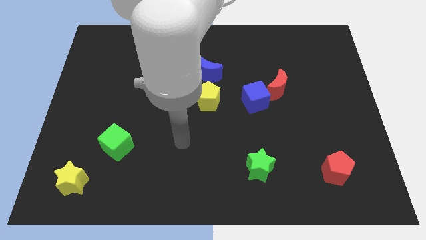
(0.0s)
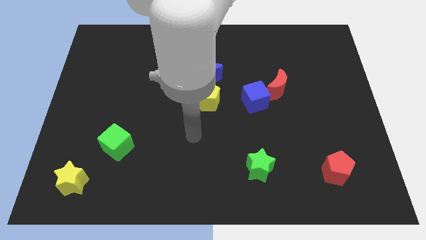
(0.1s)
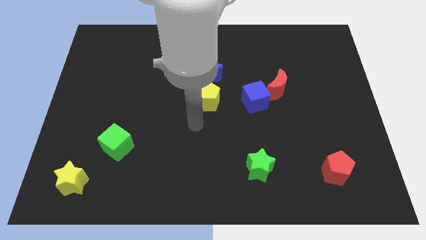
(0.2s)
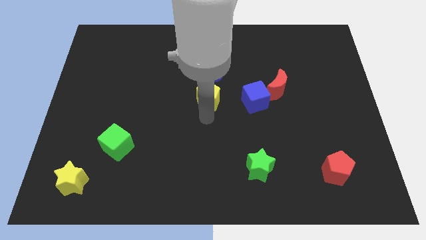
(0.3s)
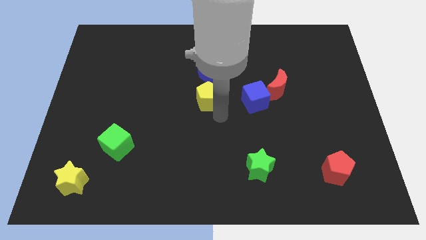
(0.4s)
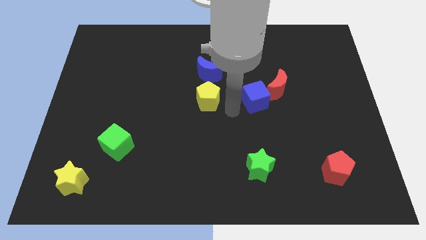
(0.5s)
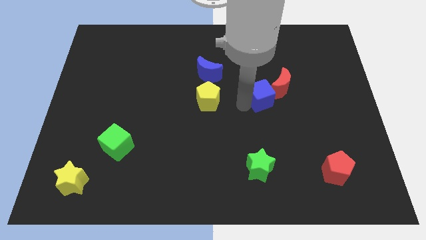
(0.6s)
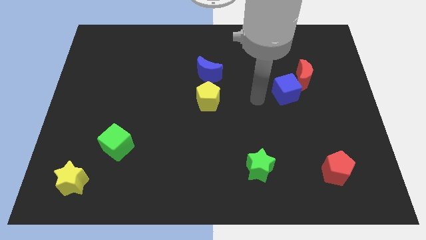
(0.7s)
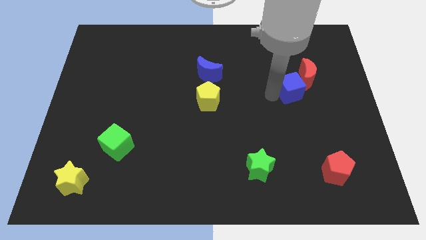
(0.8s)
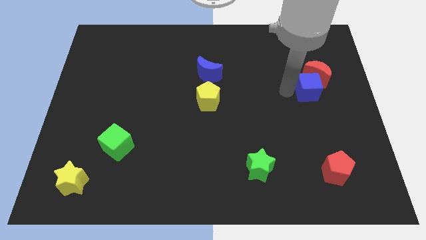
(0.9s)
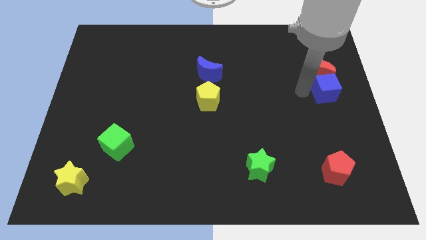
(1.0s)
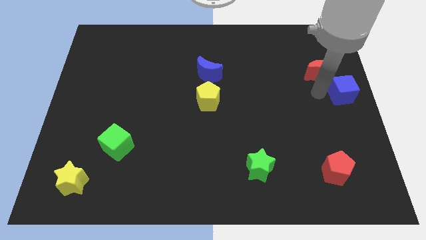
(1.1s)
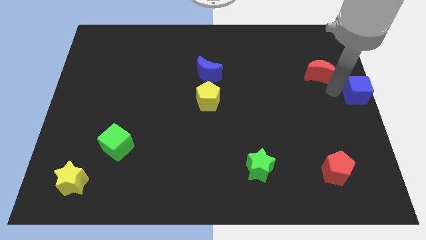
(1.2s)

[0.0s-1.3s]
pull the red moon apart from the blue cube

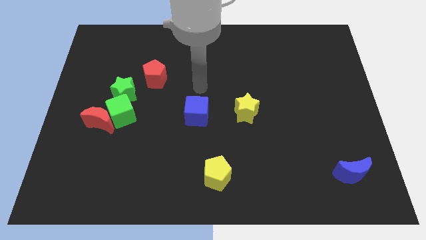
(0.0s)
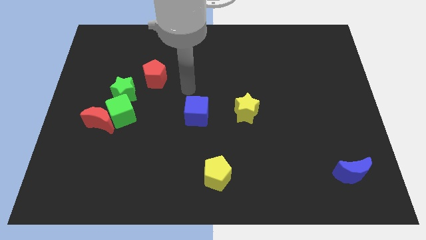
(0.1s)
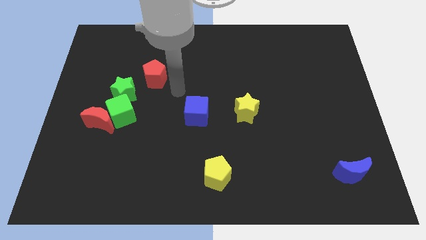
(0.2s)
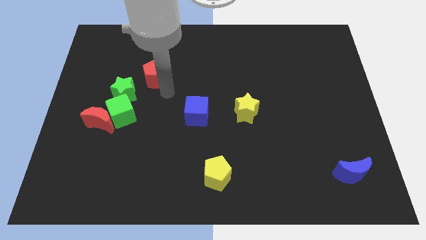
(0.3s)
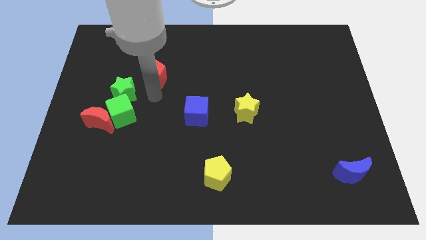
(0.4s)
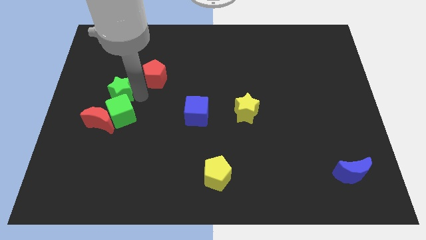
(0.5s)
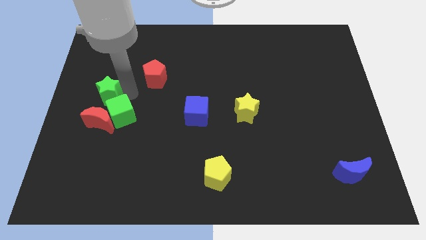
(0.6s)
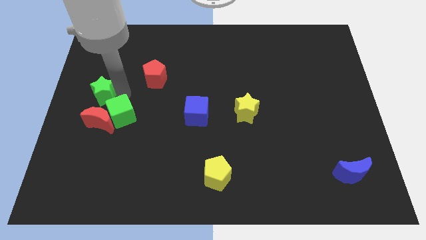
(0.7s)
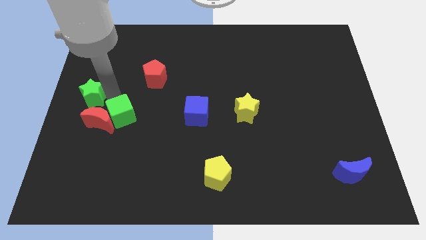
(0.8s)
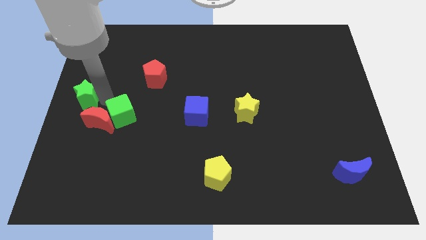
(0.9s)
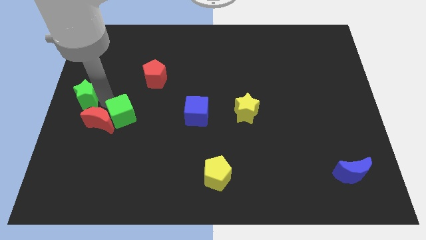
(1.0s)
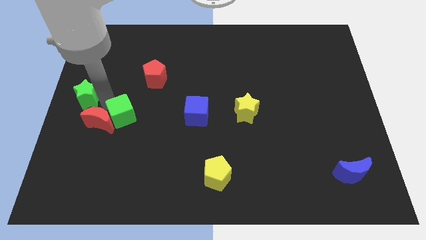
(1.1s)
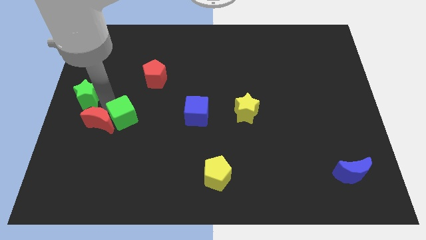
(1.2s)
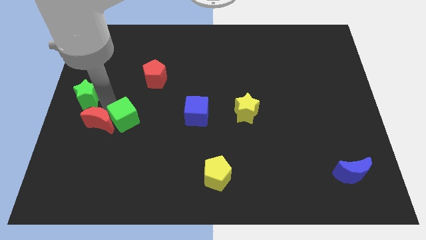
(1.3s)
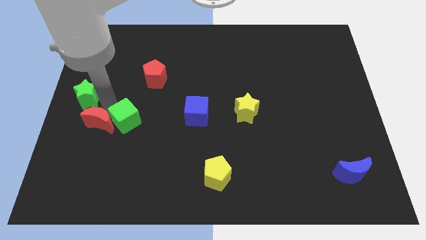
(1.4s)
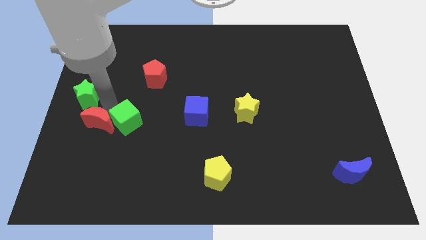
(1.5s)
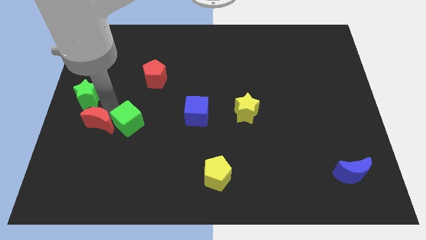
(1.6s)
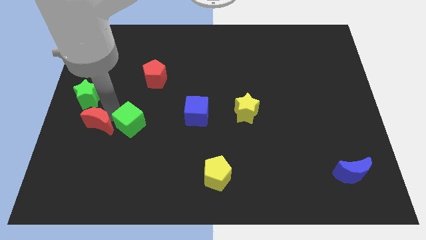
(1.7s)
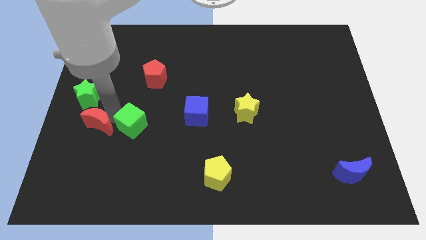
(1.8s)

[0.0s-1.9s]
move the green cube away from the red moon and green star

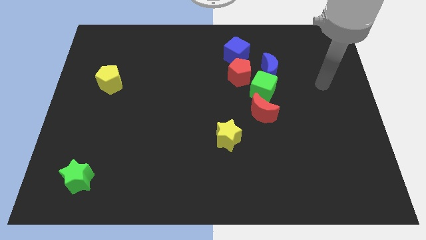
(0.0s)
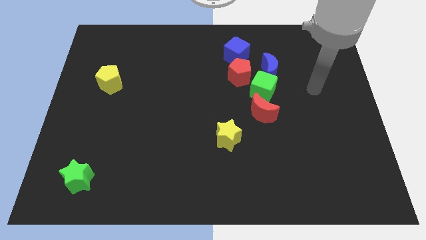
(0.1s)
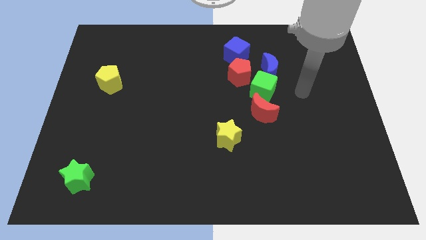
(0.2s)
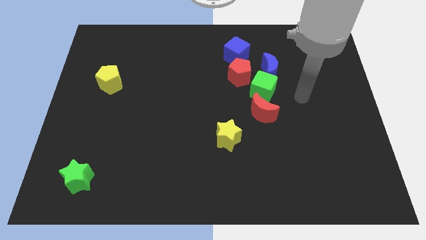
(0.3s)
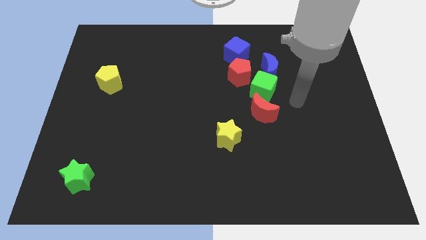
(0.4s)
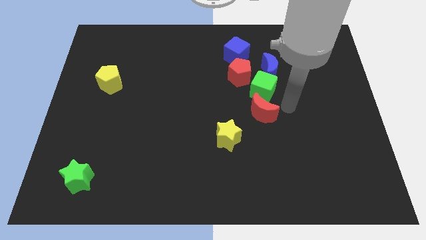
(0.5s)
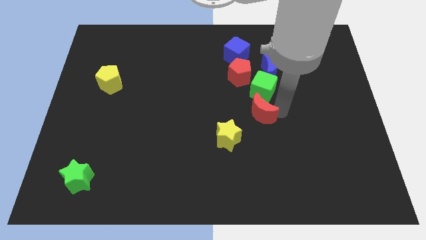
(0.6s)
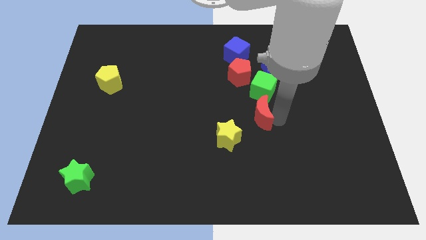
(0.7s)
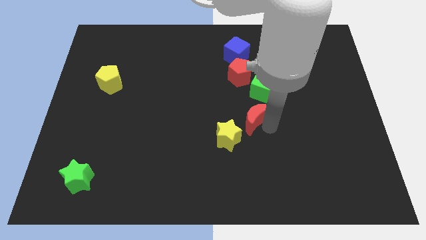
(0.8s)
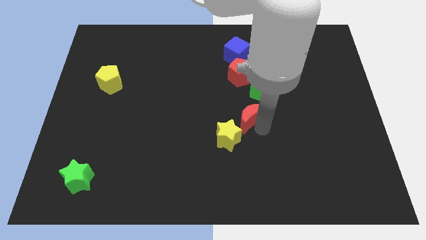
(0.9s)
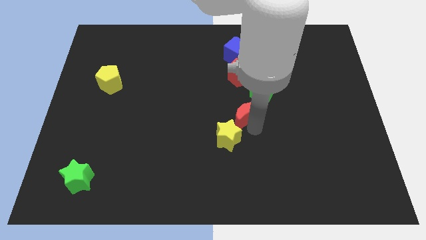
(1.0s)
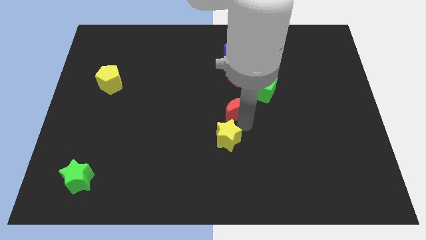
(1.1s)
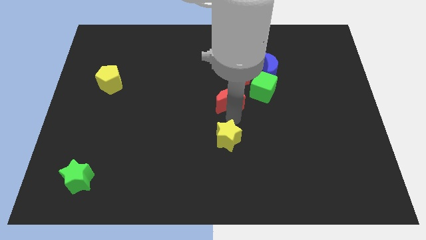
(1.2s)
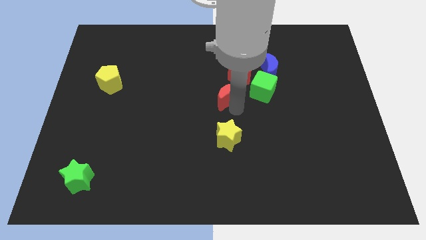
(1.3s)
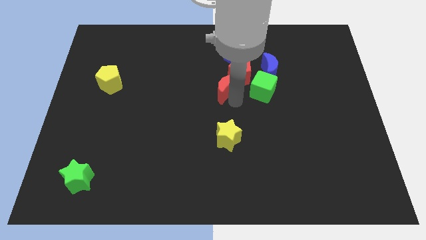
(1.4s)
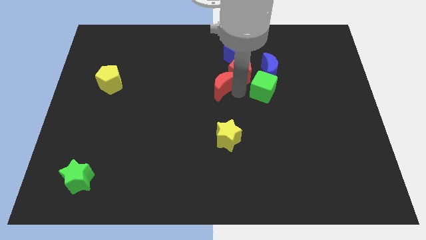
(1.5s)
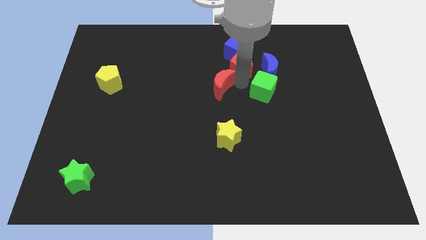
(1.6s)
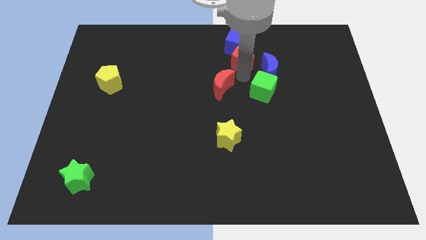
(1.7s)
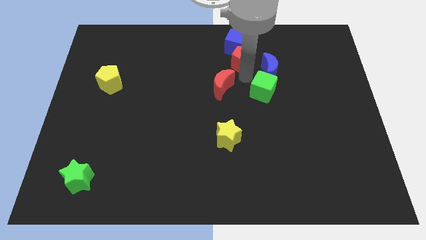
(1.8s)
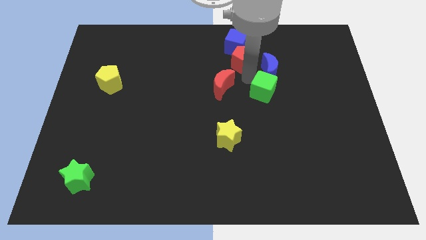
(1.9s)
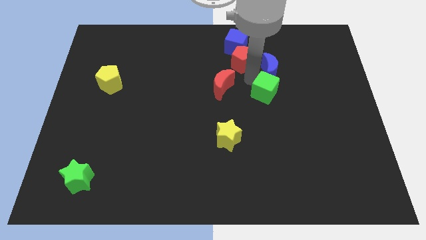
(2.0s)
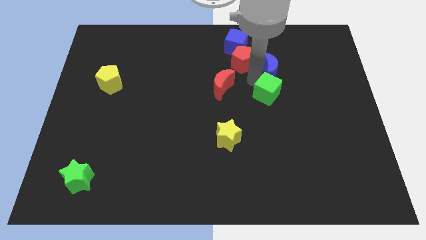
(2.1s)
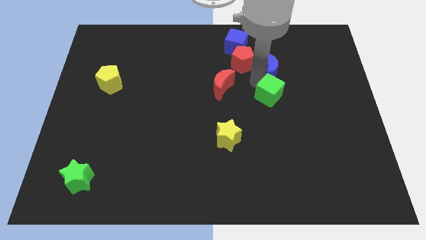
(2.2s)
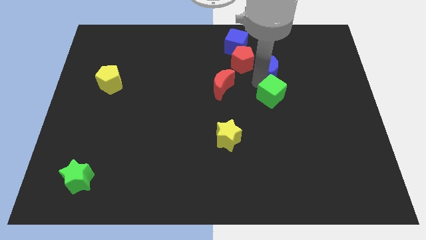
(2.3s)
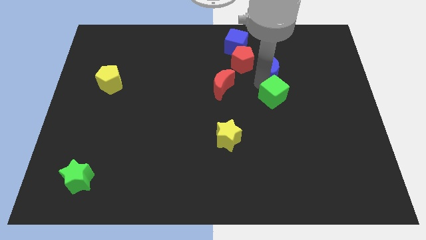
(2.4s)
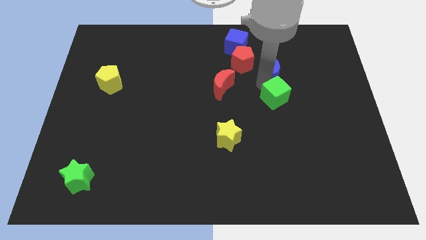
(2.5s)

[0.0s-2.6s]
move the green cube away from the blue moon, red moon, and red pentagon

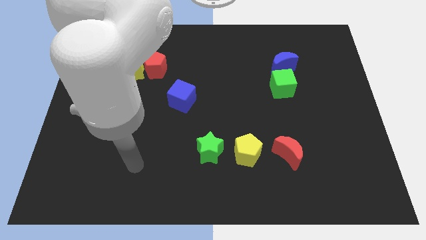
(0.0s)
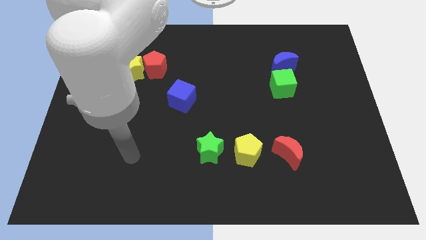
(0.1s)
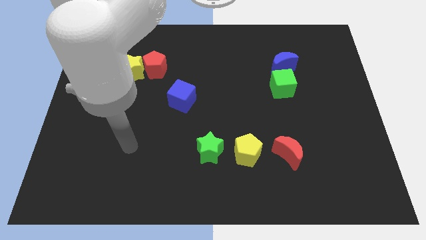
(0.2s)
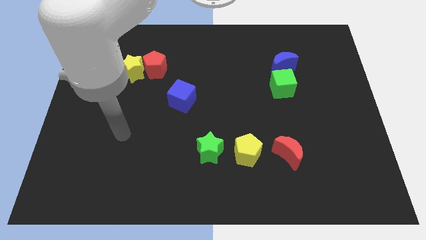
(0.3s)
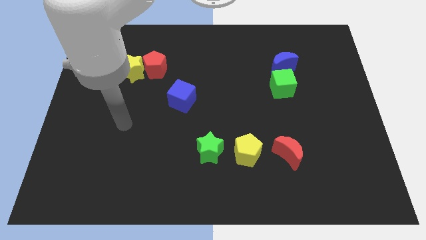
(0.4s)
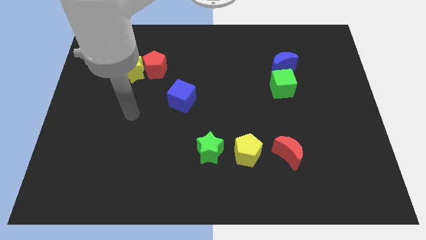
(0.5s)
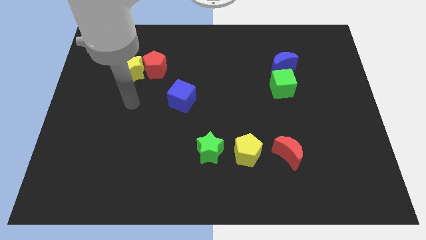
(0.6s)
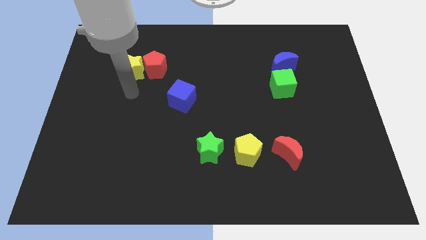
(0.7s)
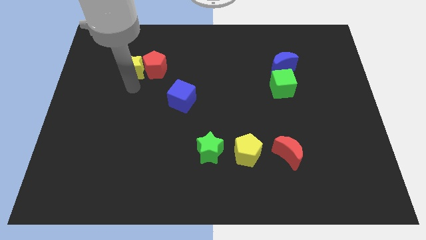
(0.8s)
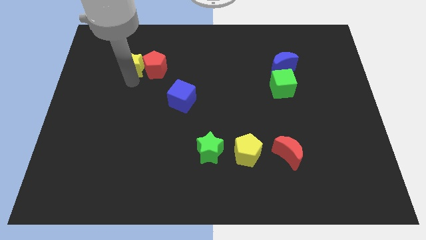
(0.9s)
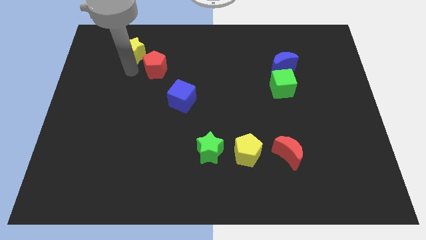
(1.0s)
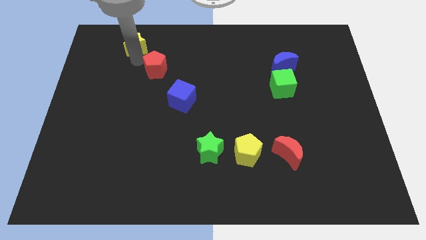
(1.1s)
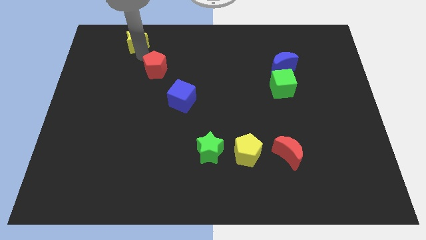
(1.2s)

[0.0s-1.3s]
pull the red pentagon apart from the yellow star

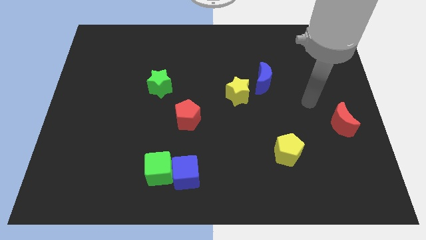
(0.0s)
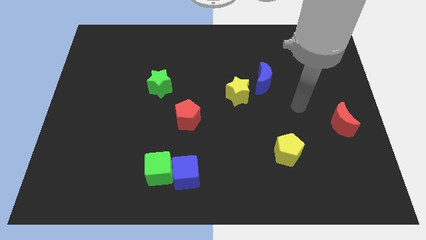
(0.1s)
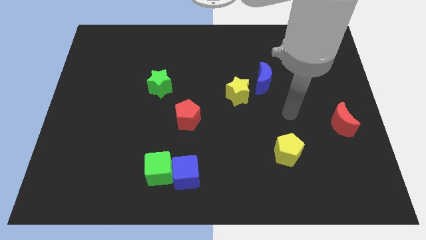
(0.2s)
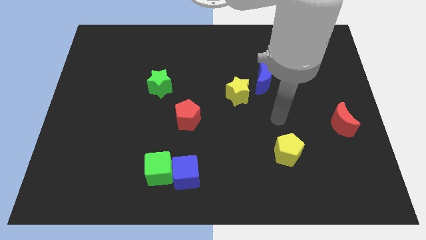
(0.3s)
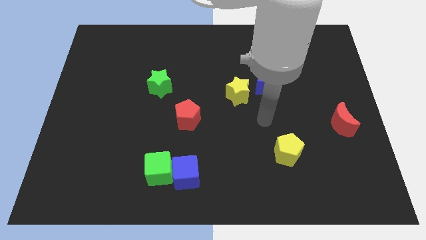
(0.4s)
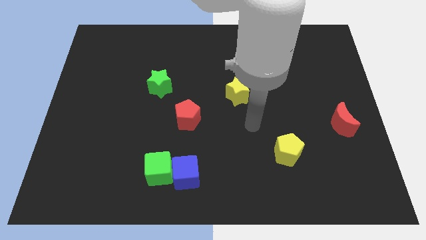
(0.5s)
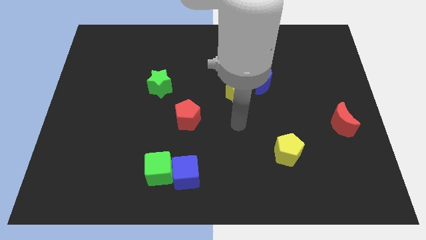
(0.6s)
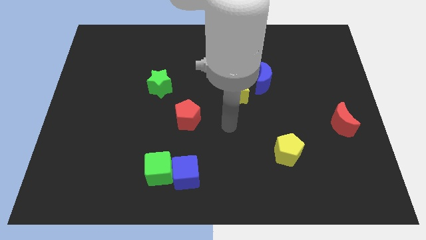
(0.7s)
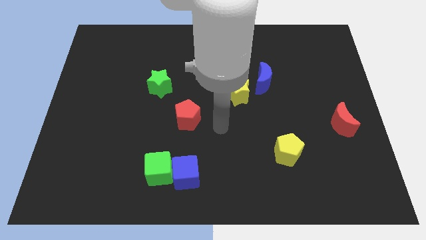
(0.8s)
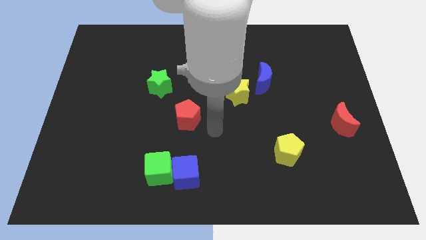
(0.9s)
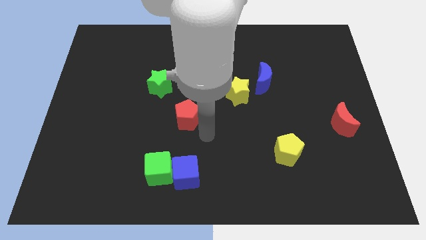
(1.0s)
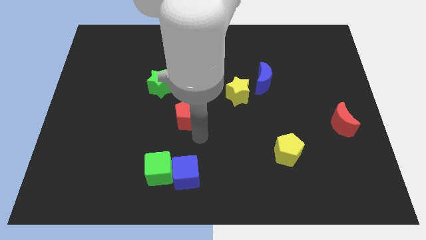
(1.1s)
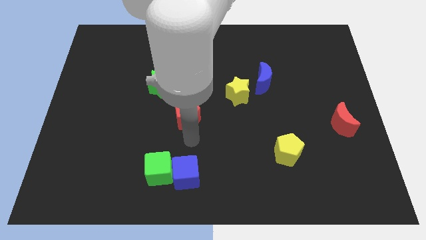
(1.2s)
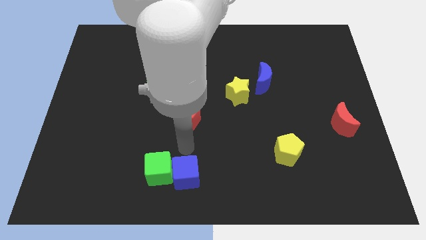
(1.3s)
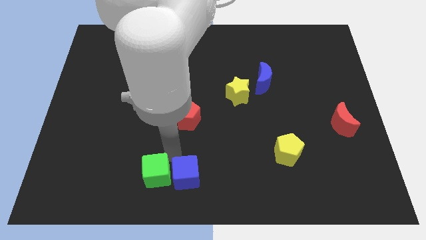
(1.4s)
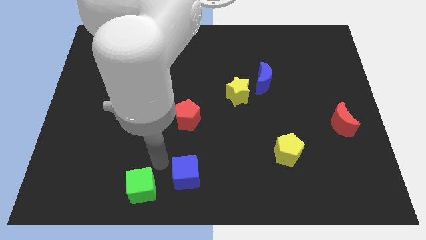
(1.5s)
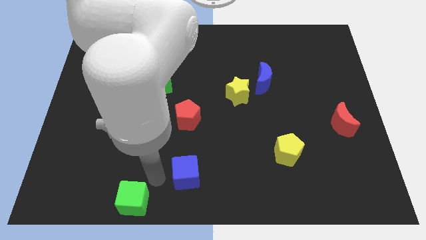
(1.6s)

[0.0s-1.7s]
separate the blue cube from the green cube

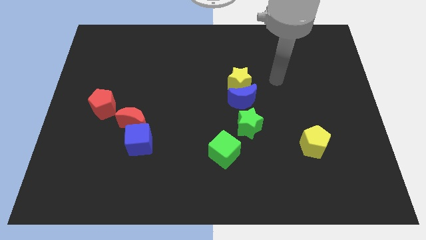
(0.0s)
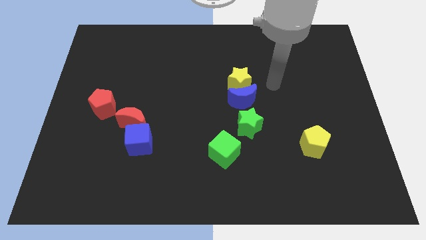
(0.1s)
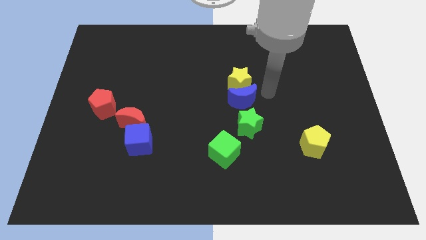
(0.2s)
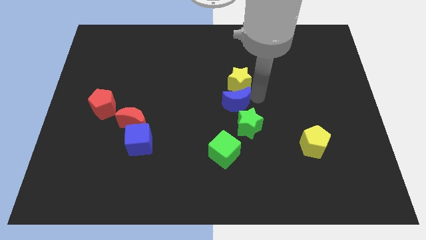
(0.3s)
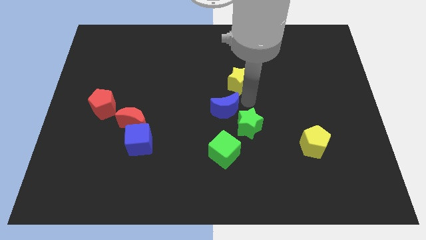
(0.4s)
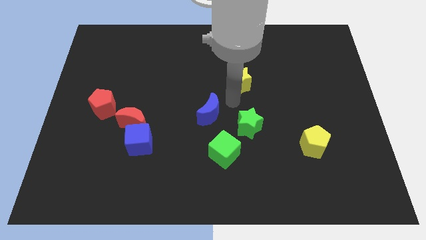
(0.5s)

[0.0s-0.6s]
pull the yellow star apart from the blue moon
